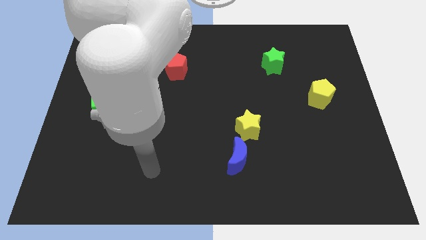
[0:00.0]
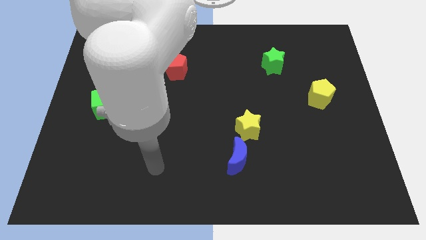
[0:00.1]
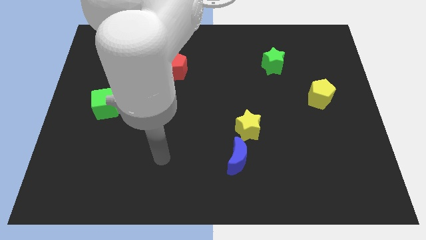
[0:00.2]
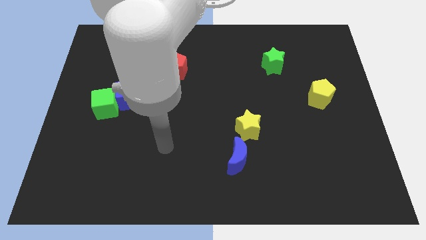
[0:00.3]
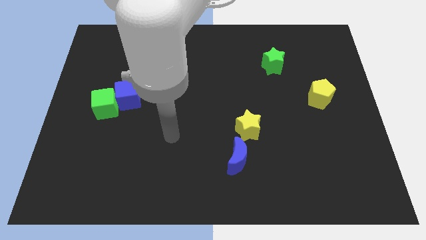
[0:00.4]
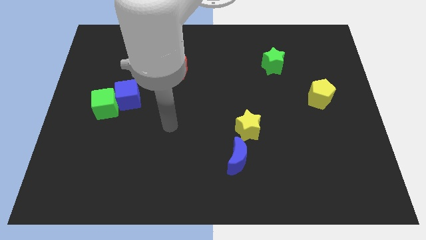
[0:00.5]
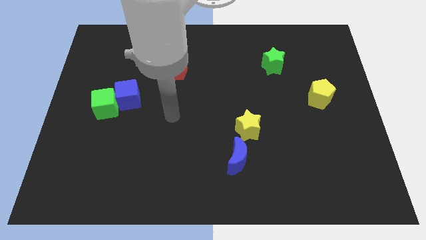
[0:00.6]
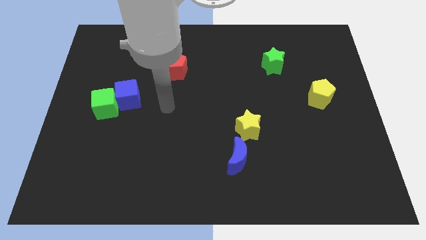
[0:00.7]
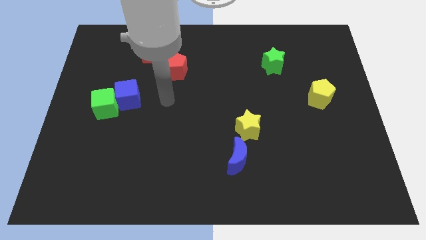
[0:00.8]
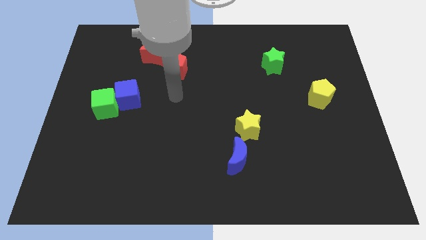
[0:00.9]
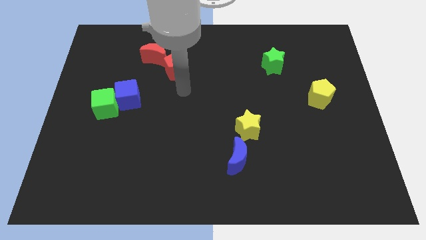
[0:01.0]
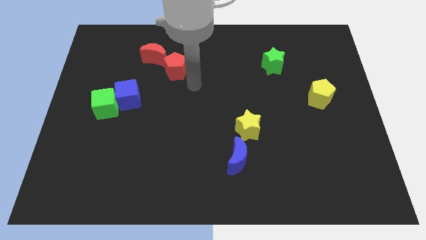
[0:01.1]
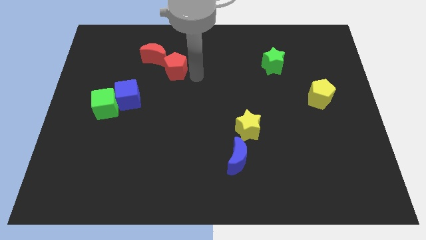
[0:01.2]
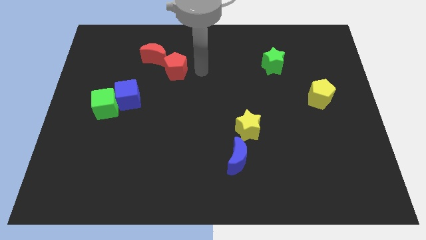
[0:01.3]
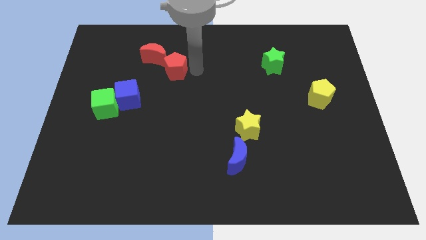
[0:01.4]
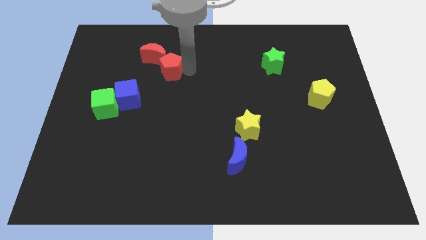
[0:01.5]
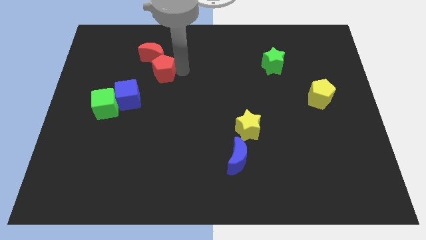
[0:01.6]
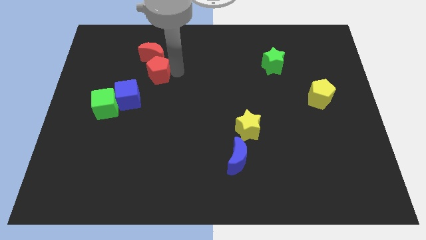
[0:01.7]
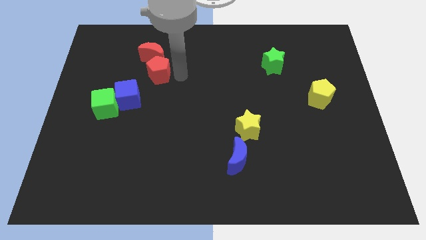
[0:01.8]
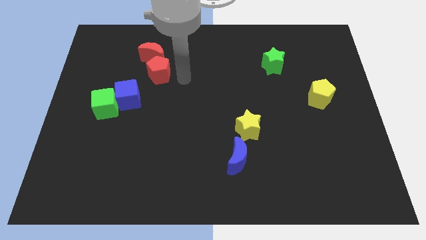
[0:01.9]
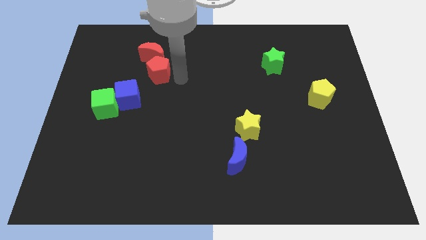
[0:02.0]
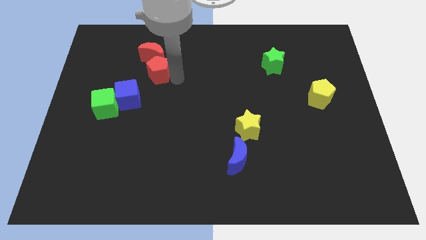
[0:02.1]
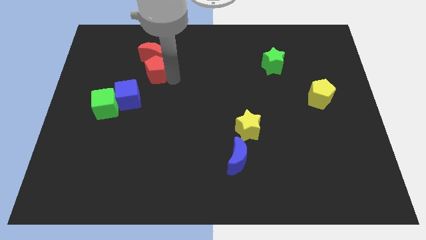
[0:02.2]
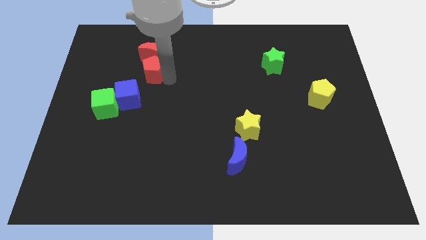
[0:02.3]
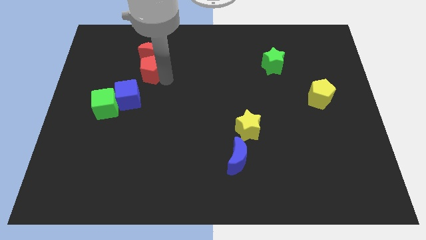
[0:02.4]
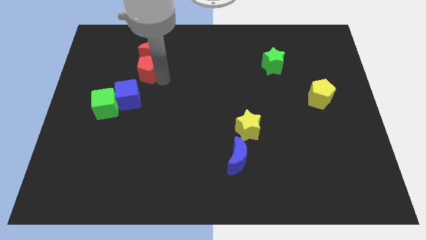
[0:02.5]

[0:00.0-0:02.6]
slightly slide the red pentagon to the left

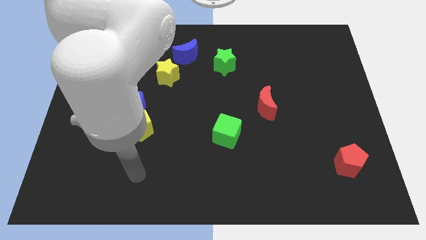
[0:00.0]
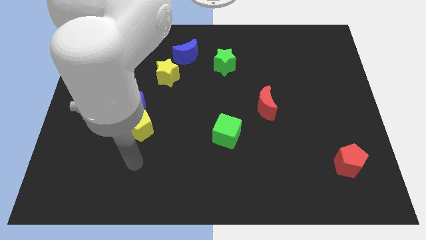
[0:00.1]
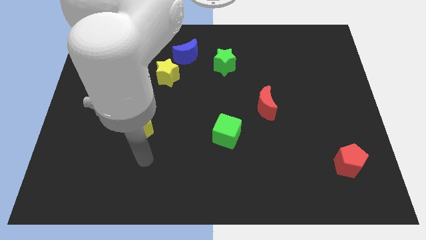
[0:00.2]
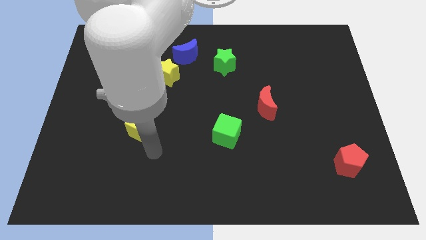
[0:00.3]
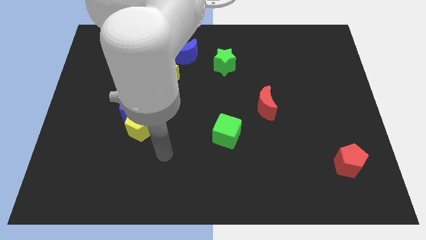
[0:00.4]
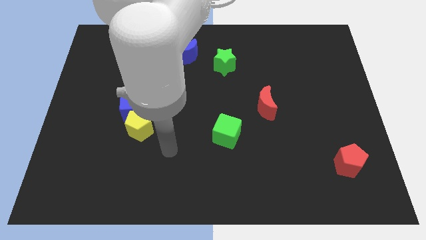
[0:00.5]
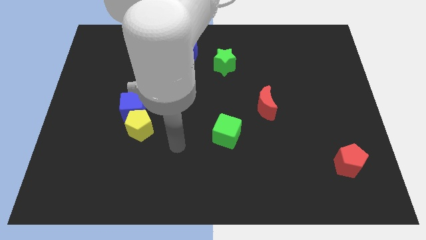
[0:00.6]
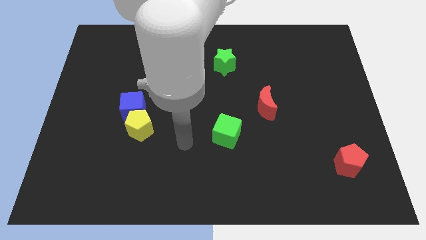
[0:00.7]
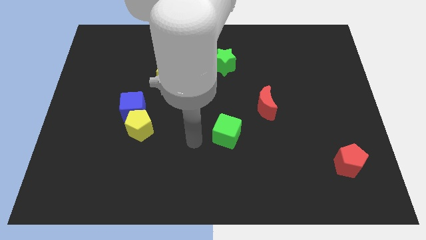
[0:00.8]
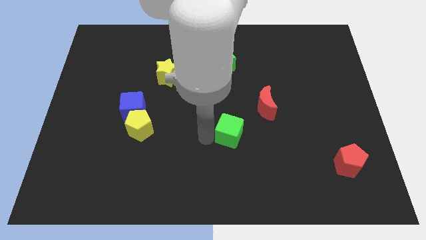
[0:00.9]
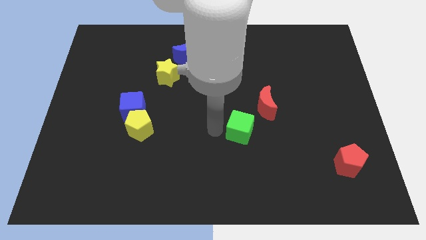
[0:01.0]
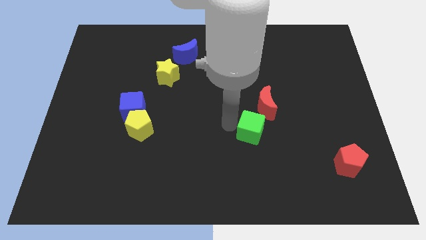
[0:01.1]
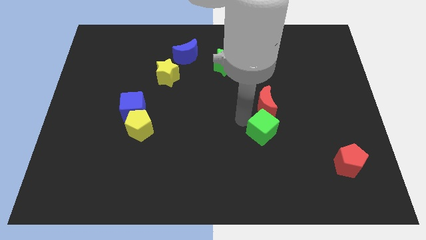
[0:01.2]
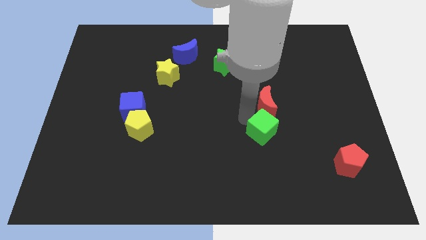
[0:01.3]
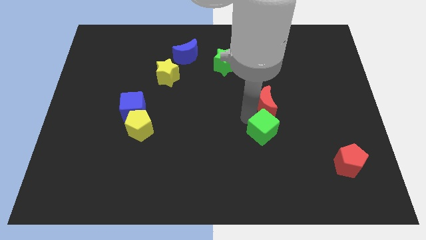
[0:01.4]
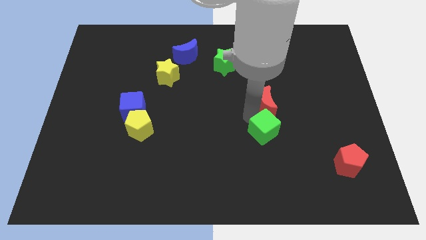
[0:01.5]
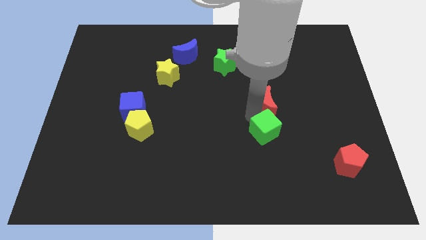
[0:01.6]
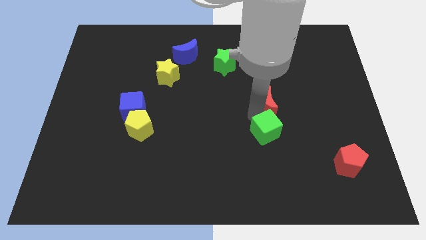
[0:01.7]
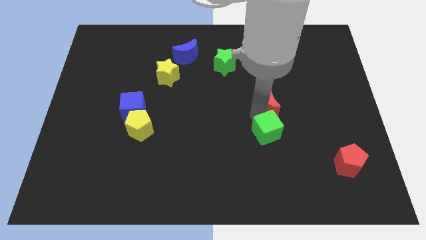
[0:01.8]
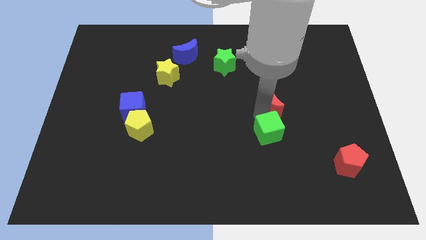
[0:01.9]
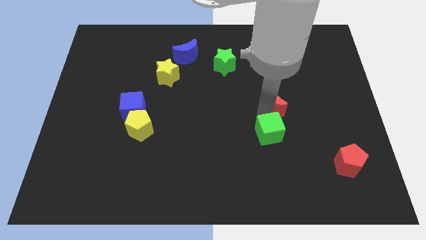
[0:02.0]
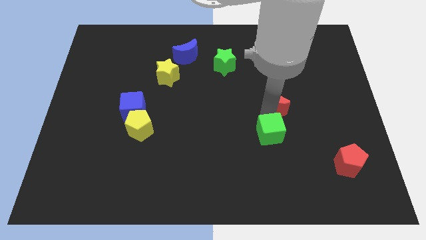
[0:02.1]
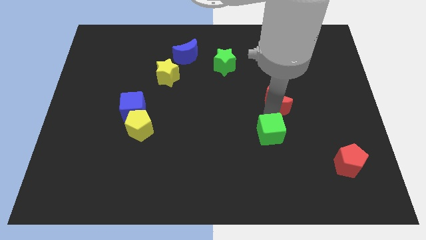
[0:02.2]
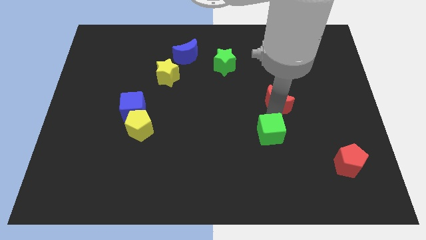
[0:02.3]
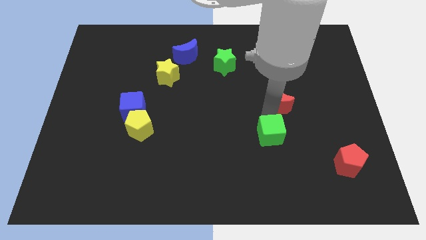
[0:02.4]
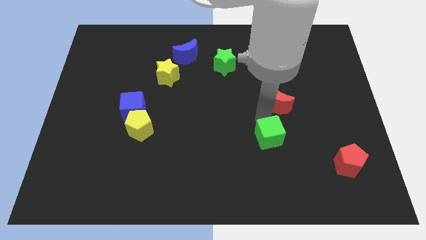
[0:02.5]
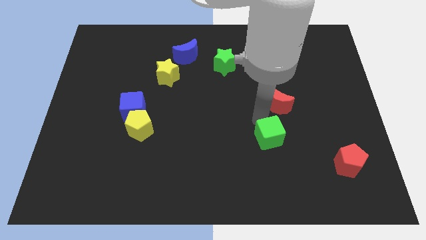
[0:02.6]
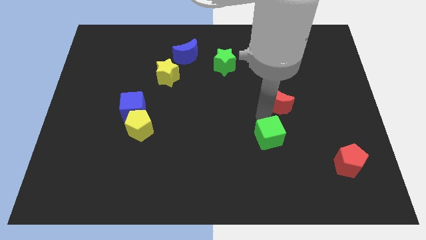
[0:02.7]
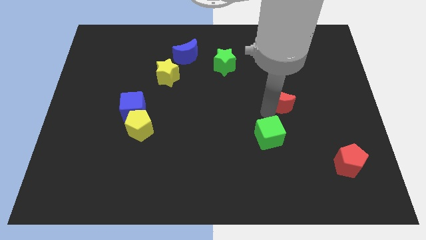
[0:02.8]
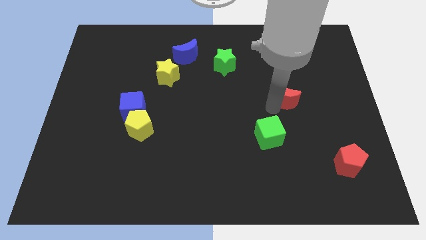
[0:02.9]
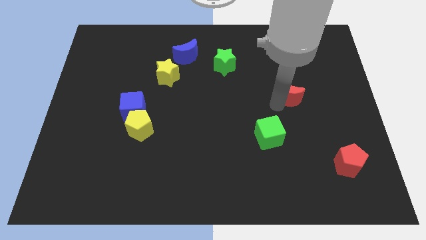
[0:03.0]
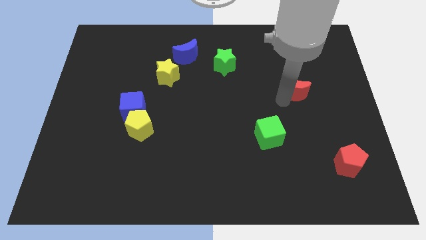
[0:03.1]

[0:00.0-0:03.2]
push the red moon a little bit diagonally upwards and to the right

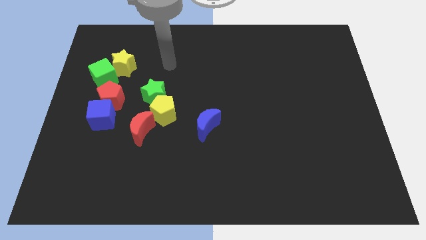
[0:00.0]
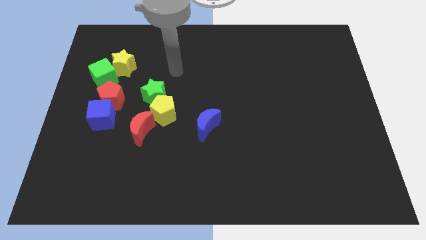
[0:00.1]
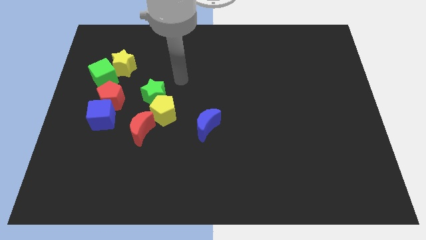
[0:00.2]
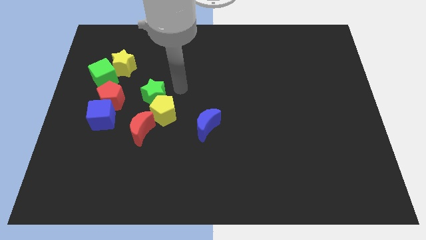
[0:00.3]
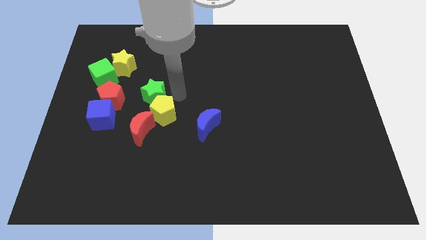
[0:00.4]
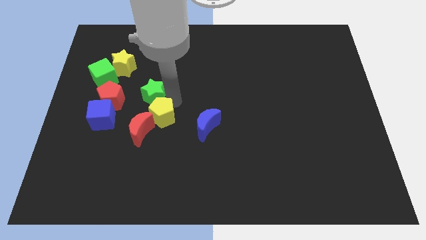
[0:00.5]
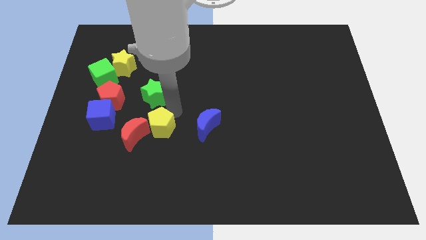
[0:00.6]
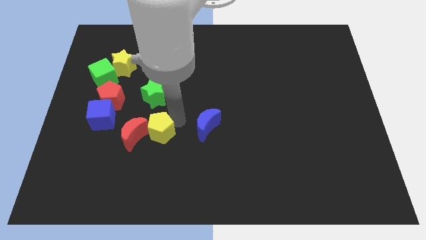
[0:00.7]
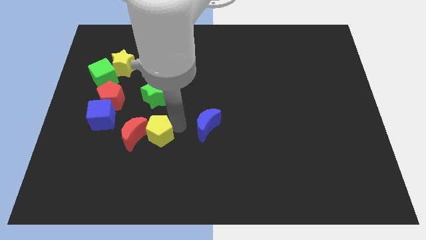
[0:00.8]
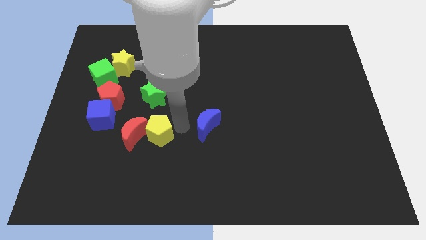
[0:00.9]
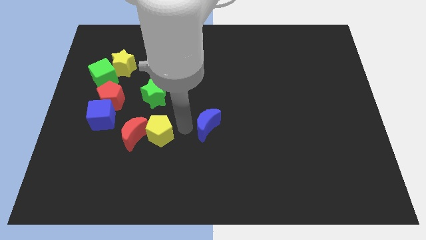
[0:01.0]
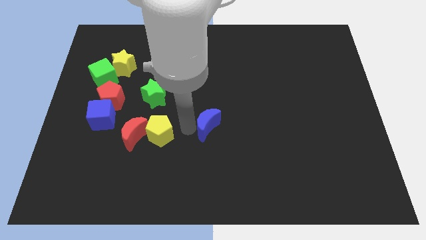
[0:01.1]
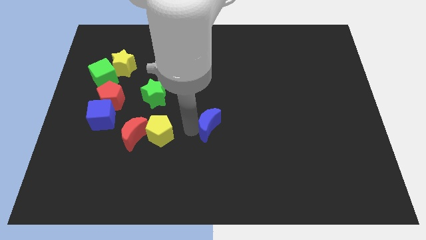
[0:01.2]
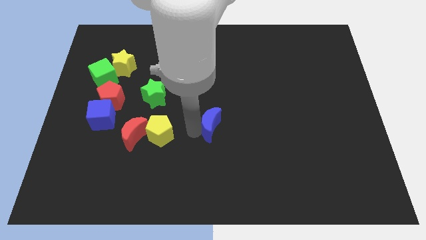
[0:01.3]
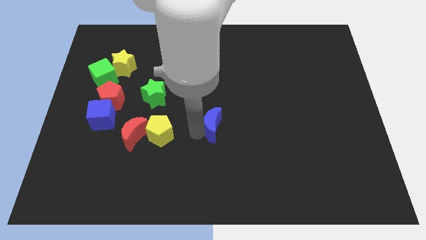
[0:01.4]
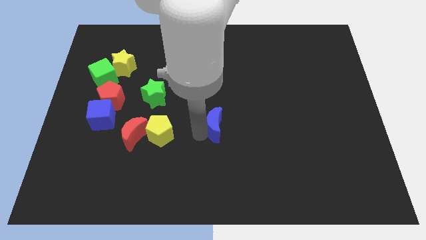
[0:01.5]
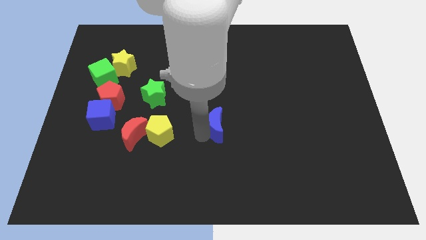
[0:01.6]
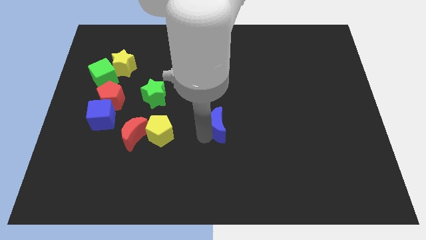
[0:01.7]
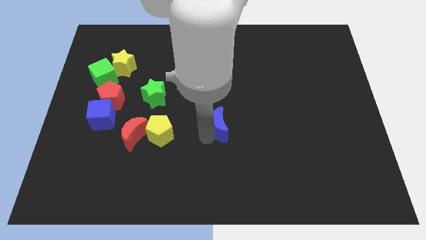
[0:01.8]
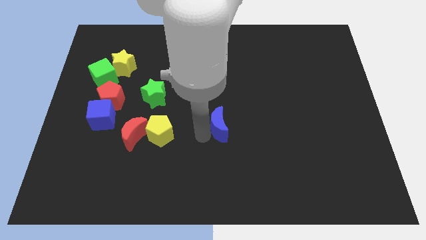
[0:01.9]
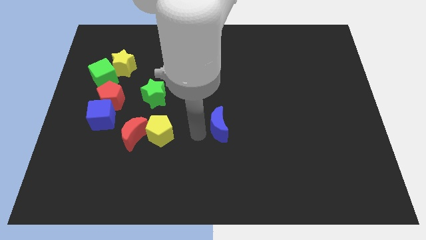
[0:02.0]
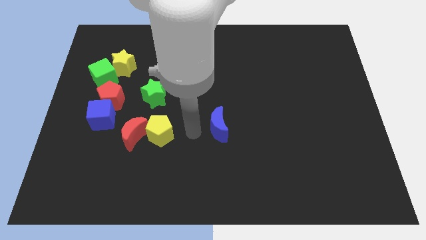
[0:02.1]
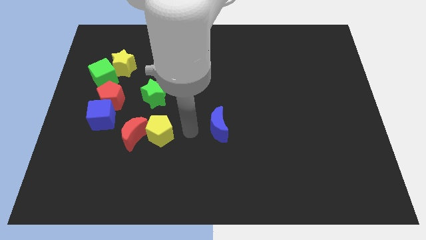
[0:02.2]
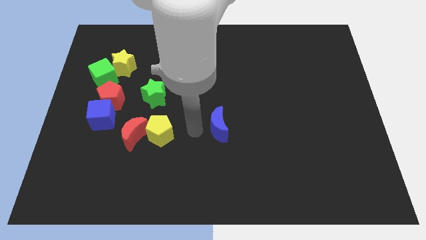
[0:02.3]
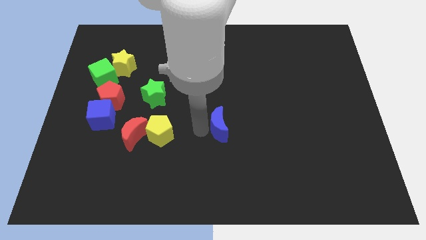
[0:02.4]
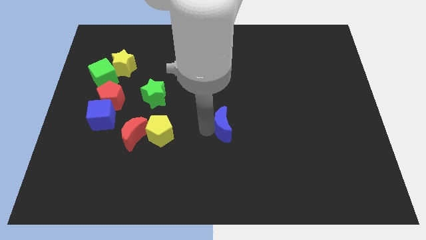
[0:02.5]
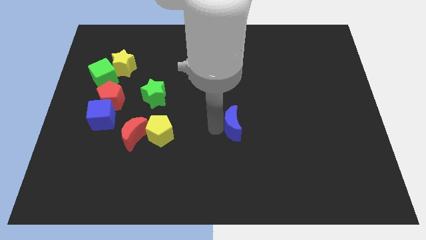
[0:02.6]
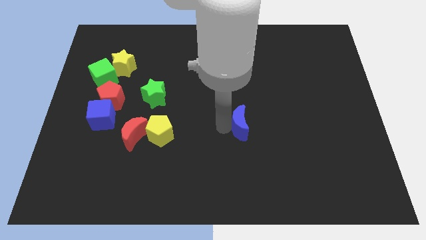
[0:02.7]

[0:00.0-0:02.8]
slightly slide the blue moon to the right
